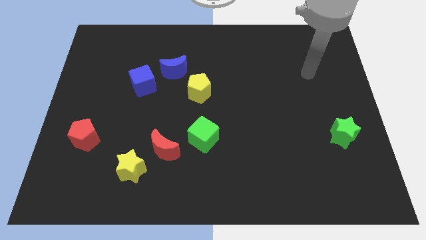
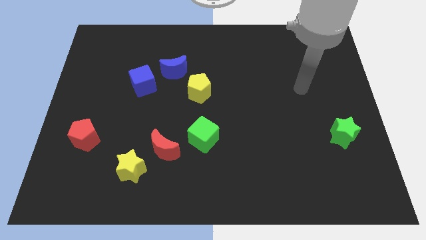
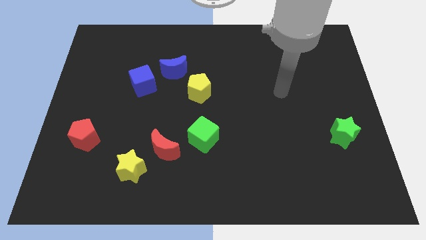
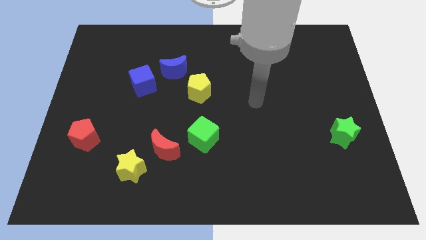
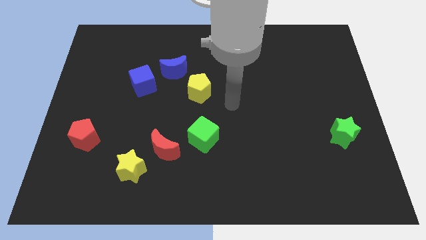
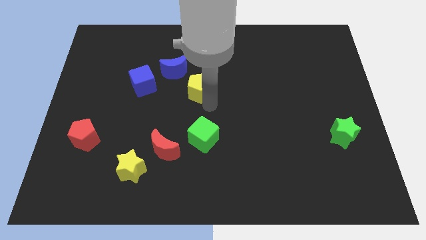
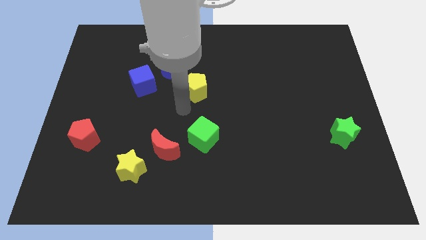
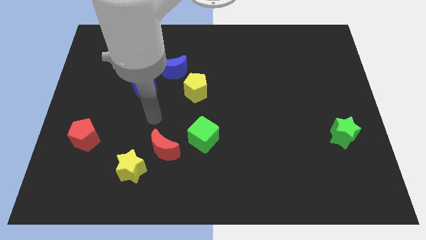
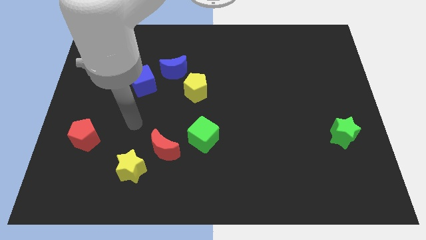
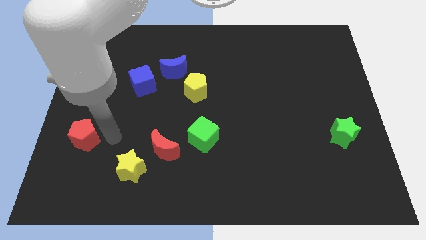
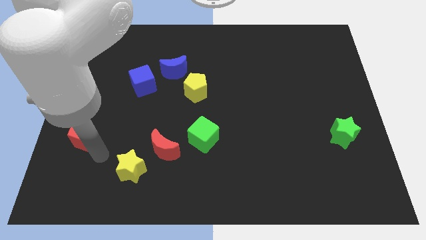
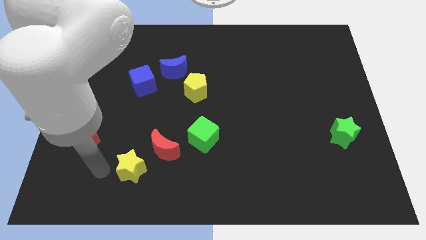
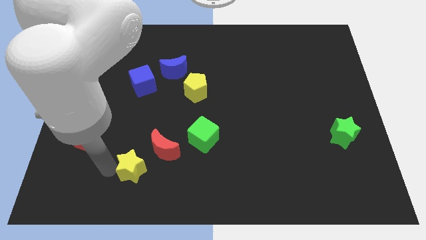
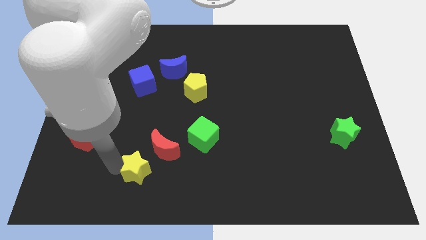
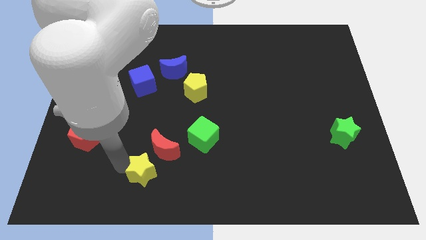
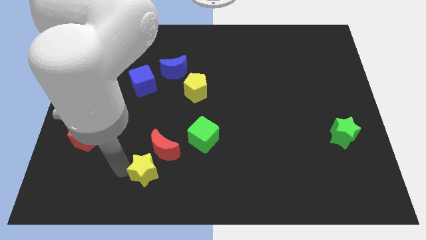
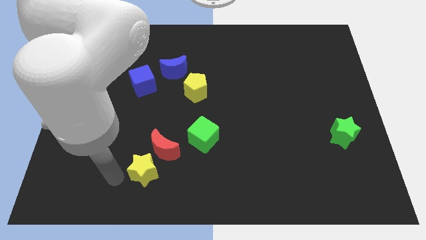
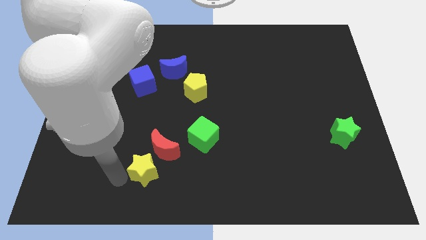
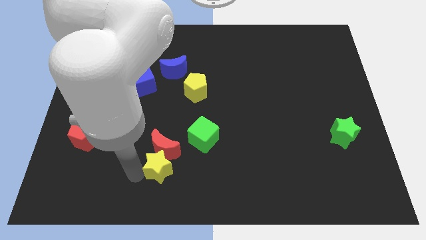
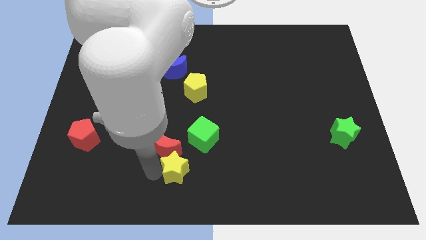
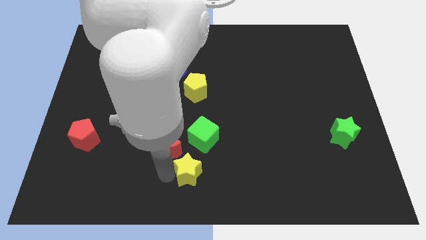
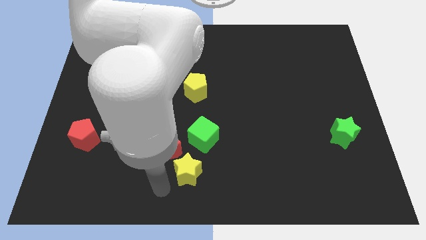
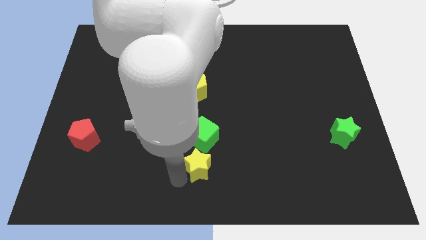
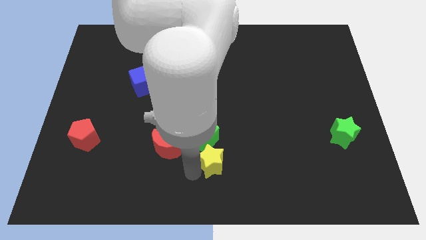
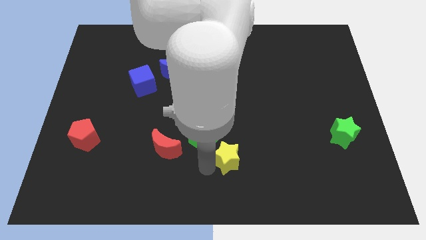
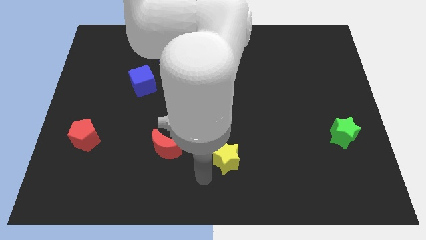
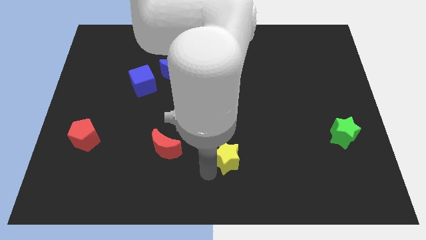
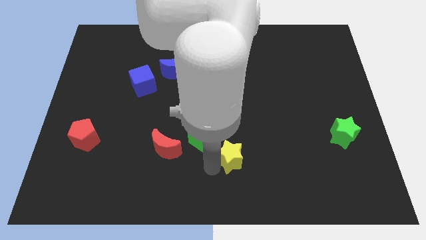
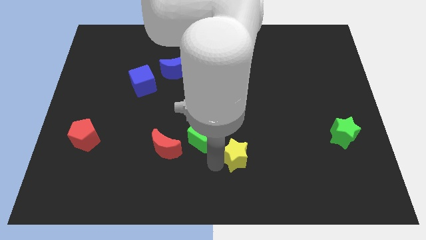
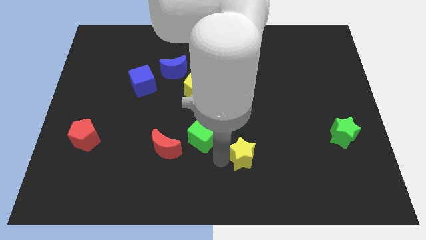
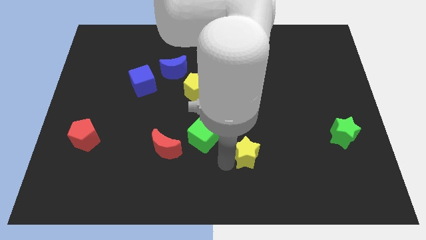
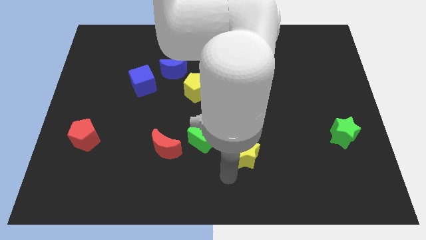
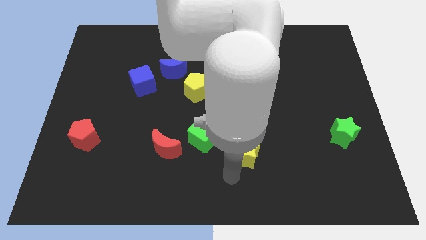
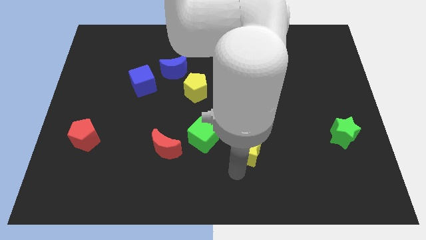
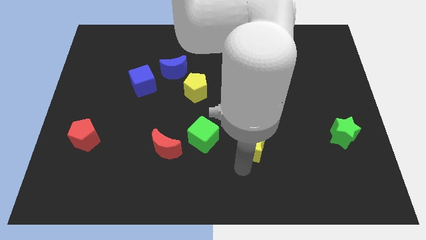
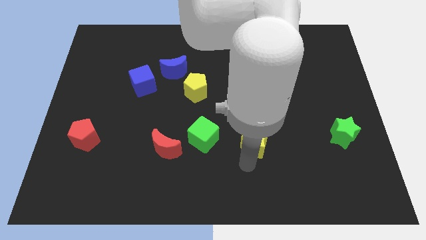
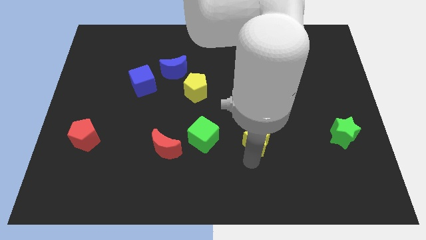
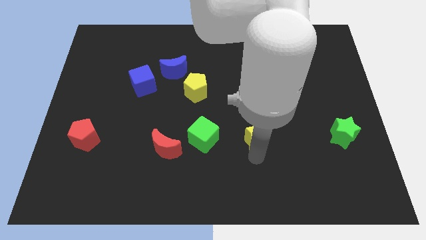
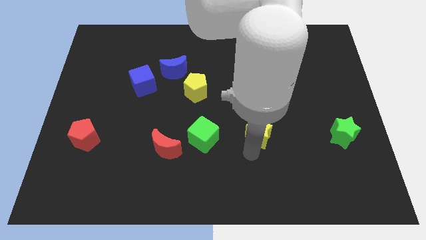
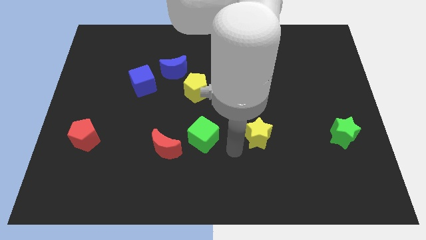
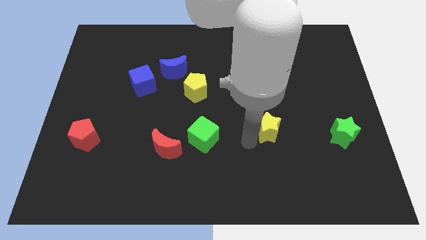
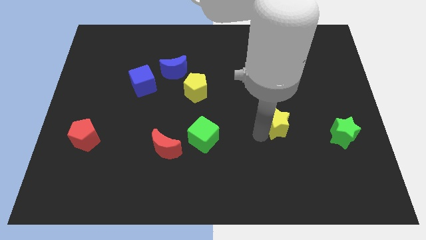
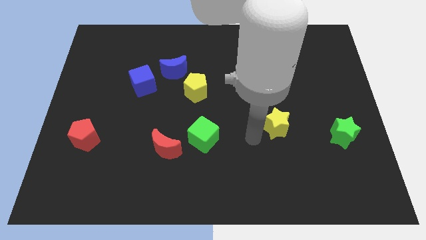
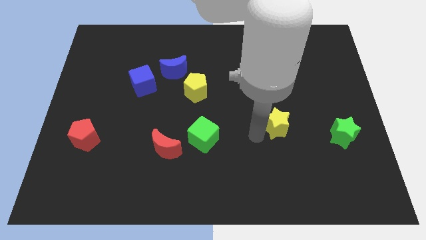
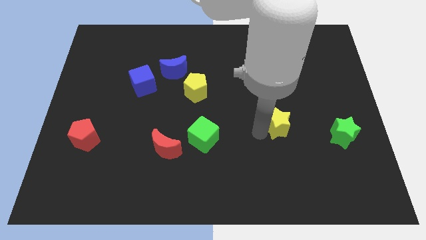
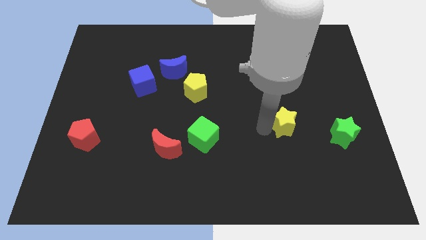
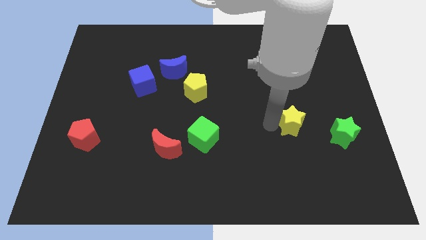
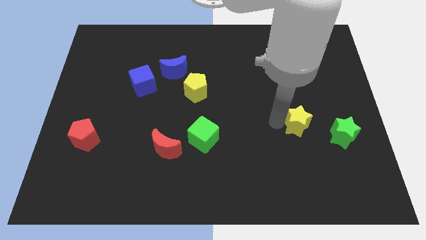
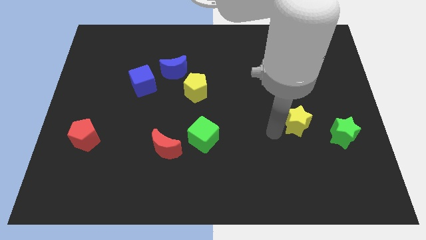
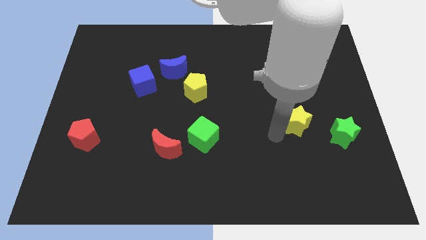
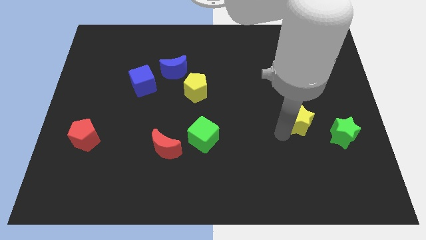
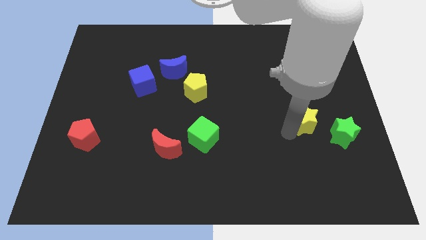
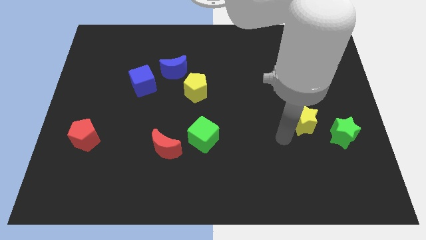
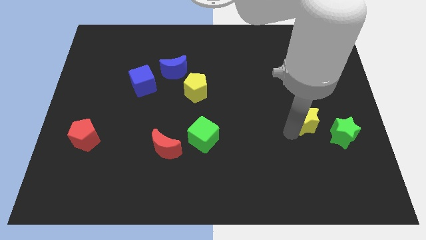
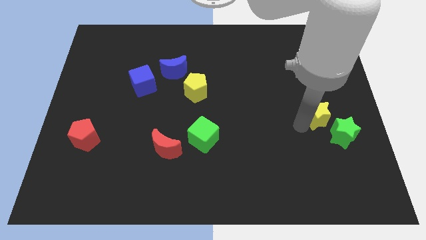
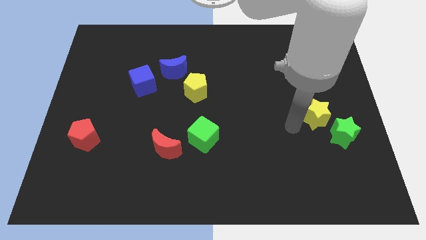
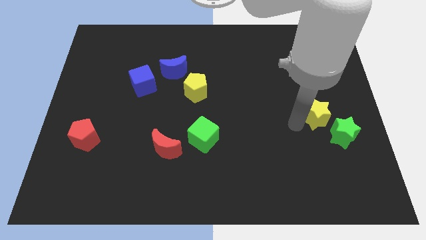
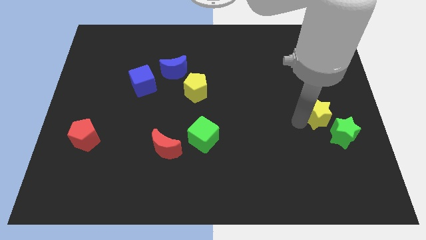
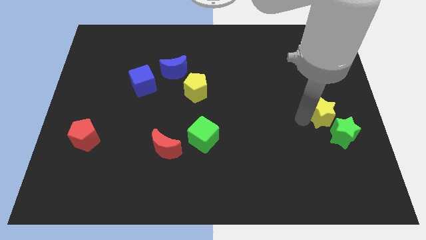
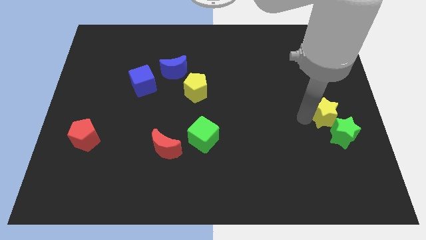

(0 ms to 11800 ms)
move the yellow star to the right side

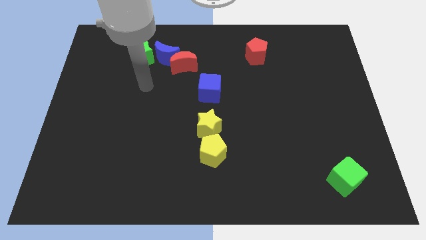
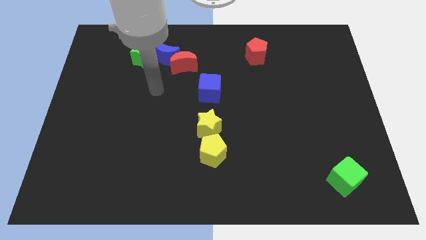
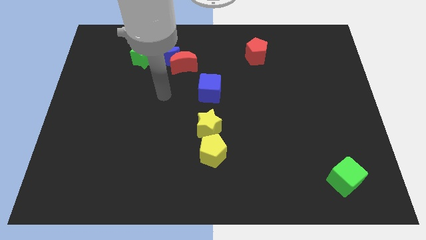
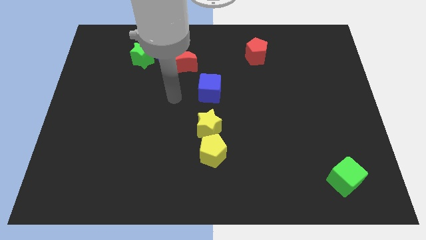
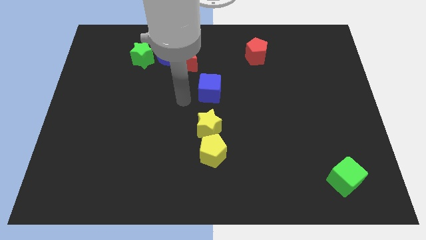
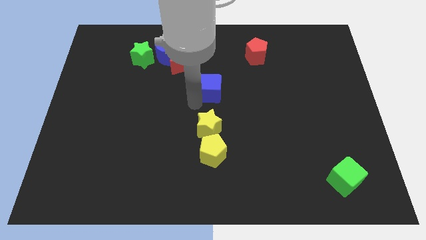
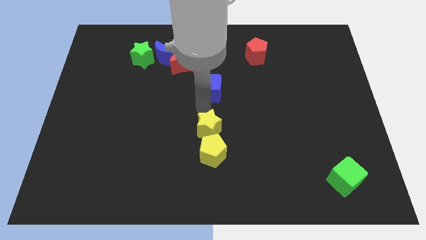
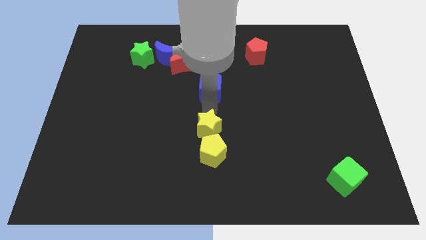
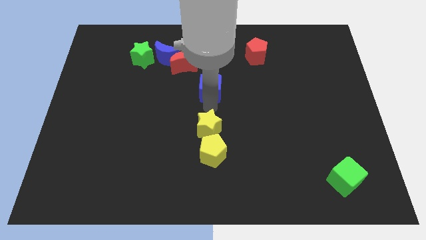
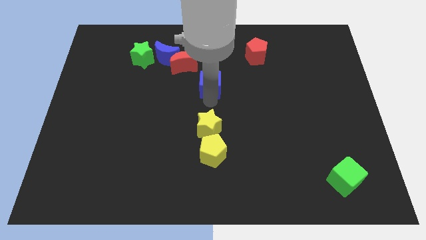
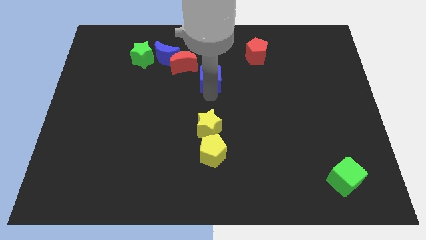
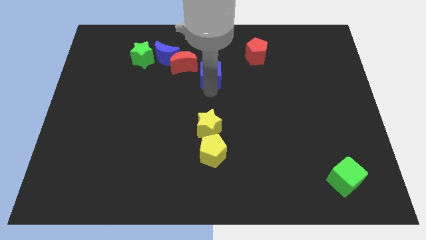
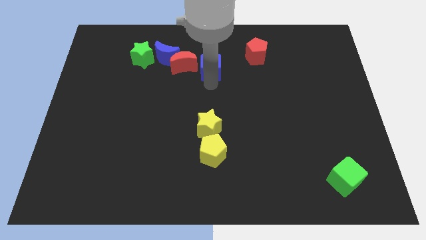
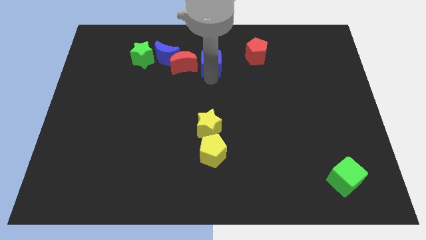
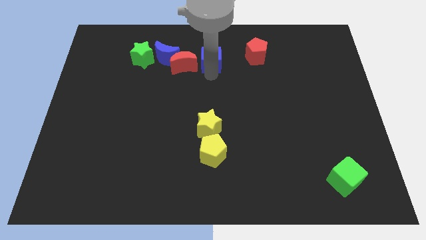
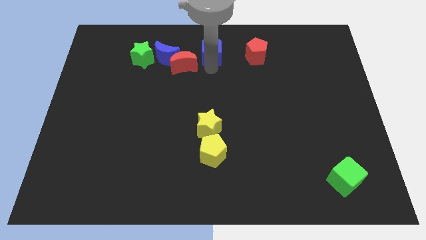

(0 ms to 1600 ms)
push the blue cube to the top
